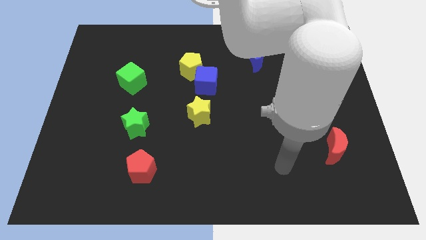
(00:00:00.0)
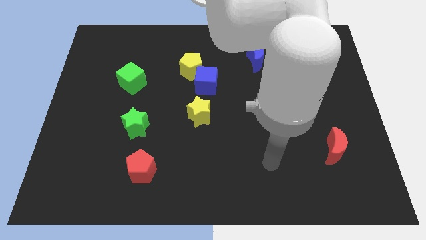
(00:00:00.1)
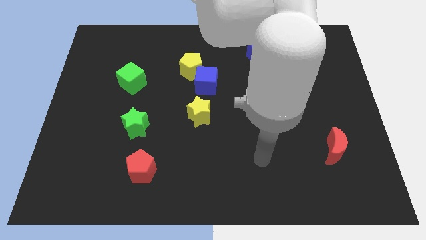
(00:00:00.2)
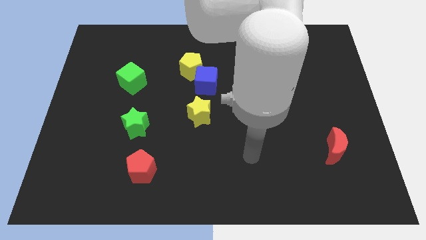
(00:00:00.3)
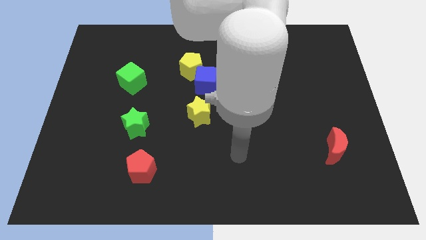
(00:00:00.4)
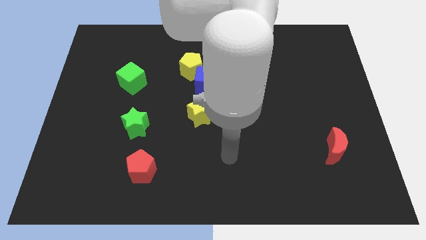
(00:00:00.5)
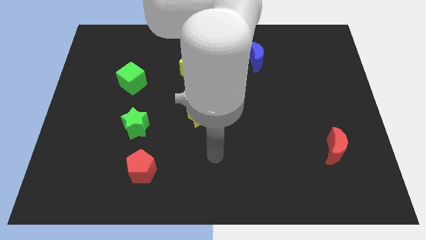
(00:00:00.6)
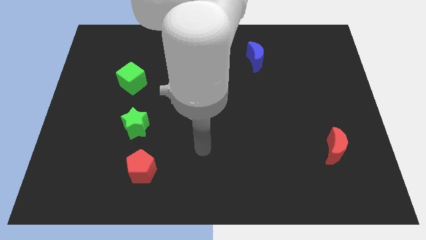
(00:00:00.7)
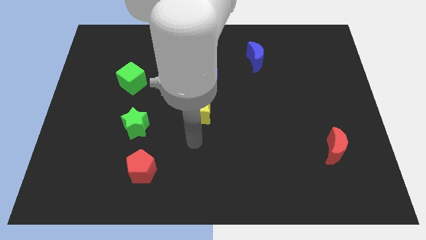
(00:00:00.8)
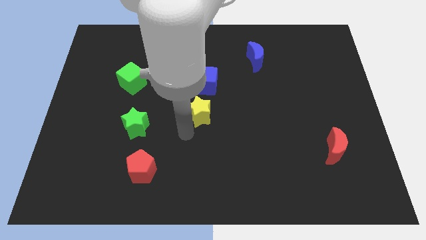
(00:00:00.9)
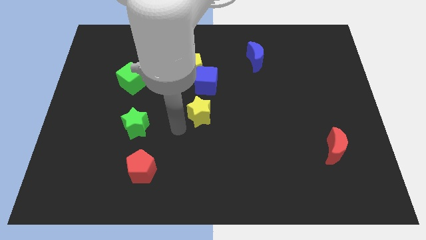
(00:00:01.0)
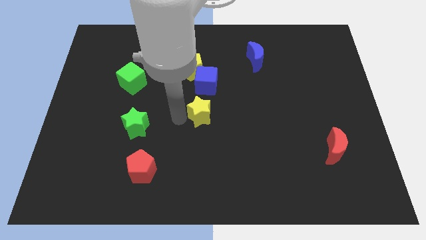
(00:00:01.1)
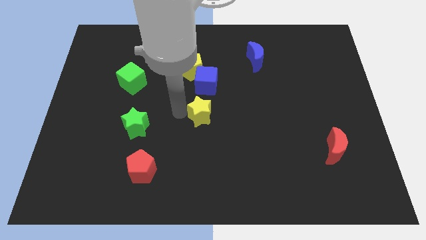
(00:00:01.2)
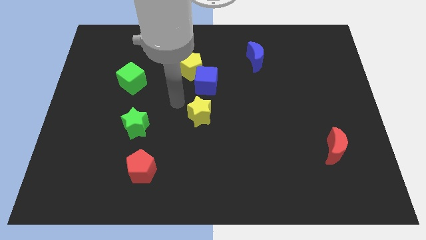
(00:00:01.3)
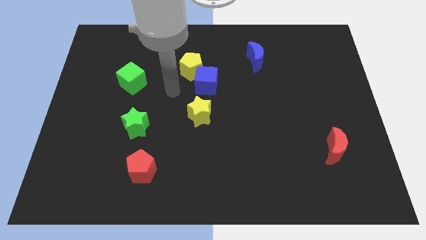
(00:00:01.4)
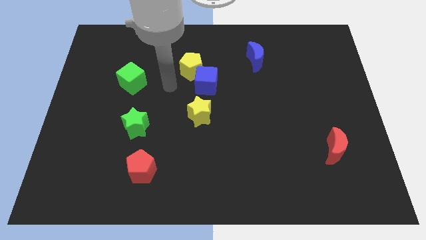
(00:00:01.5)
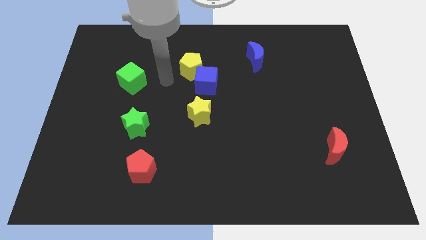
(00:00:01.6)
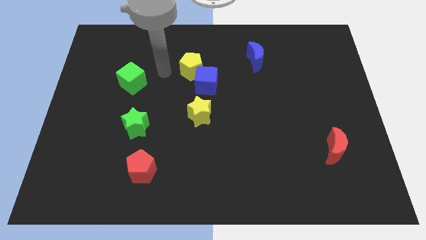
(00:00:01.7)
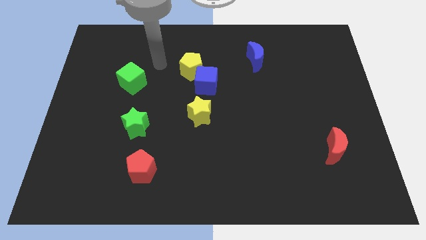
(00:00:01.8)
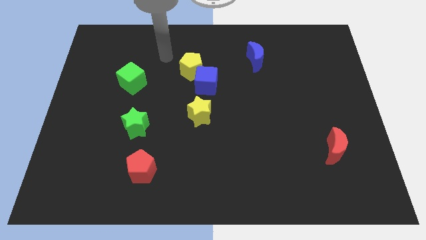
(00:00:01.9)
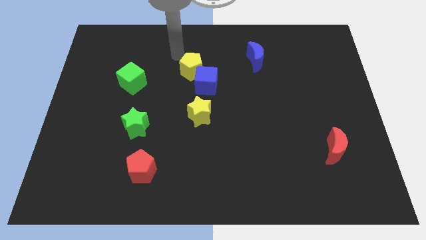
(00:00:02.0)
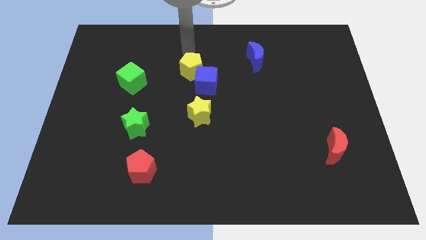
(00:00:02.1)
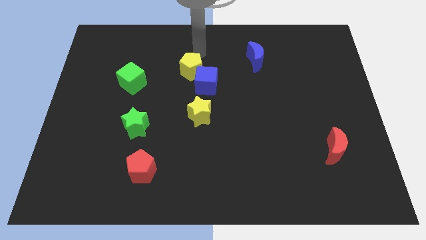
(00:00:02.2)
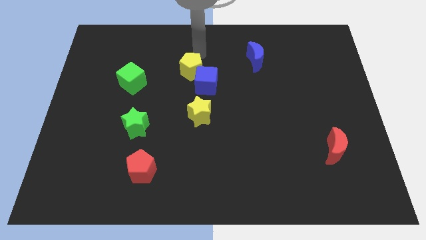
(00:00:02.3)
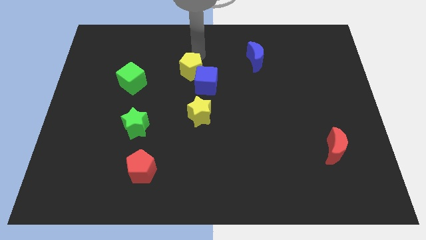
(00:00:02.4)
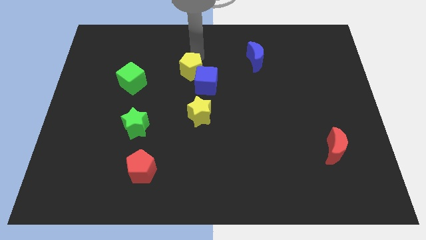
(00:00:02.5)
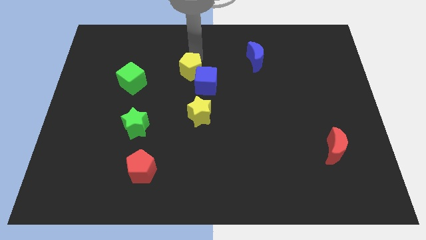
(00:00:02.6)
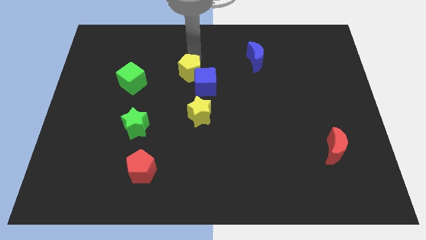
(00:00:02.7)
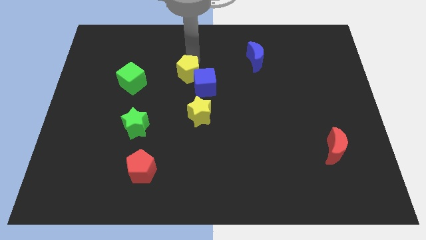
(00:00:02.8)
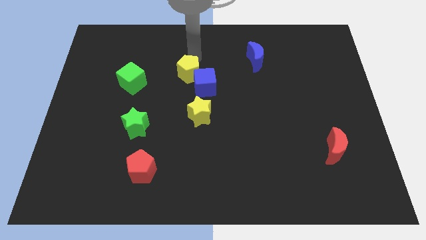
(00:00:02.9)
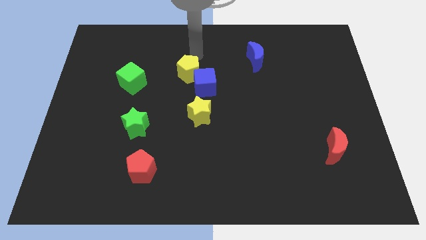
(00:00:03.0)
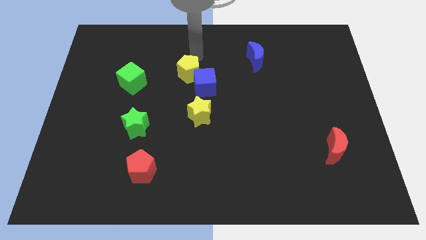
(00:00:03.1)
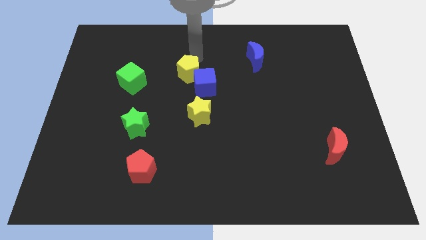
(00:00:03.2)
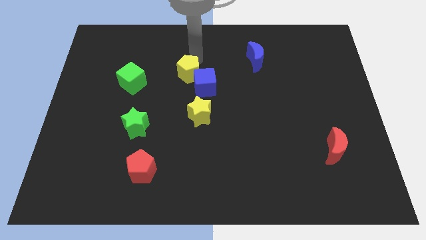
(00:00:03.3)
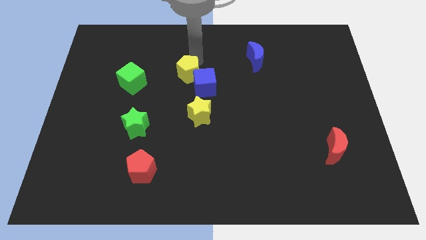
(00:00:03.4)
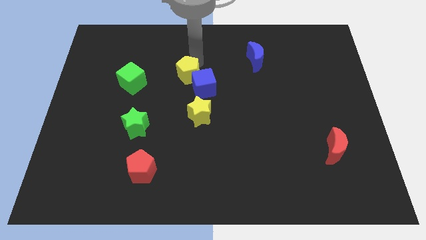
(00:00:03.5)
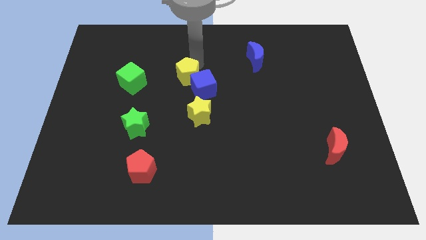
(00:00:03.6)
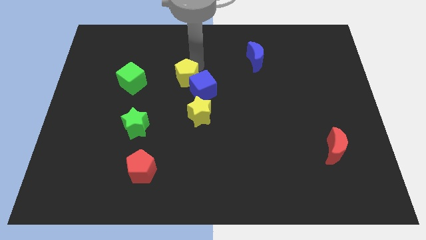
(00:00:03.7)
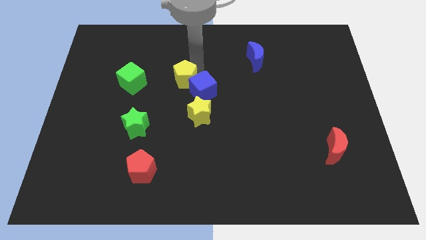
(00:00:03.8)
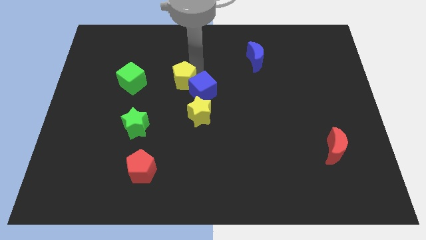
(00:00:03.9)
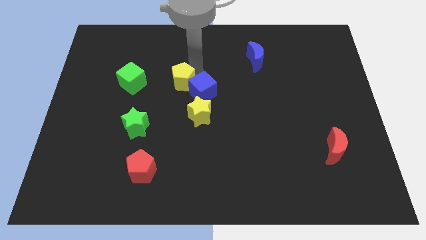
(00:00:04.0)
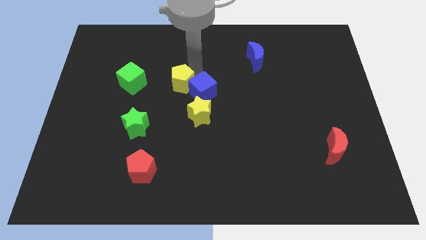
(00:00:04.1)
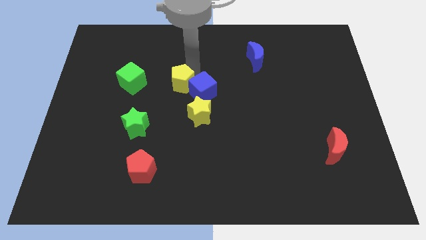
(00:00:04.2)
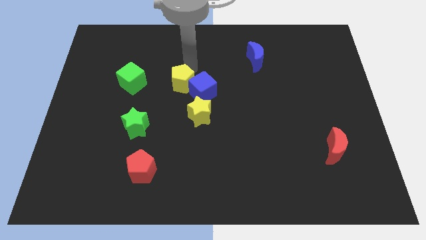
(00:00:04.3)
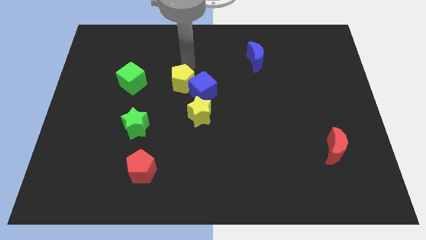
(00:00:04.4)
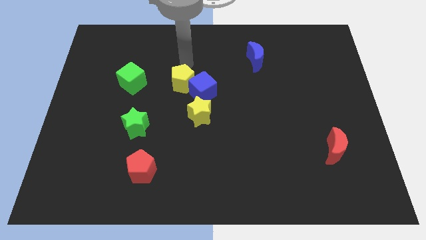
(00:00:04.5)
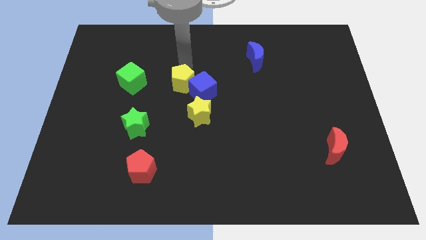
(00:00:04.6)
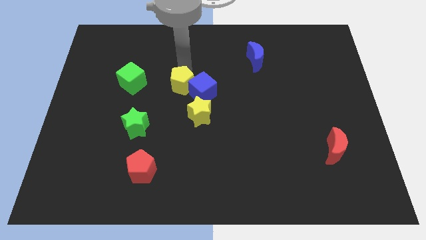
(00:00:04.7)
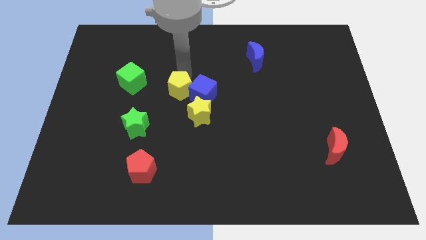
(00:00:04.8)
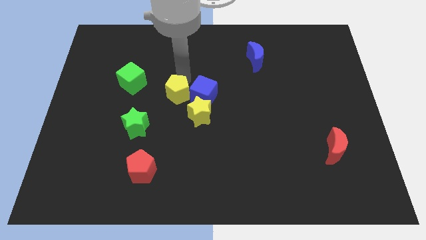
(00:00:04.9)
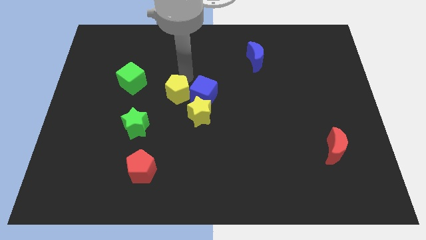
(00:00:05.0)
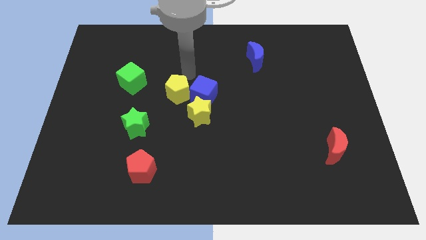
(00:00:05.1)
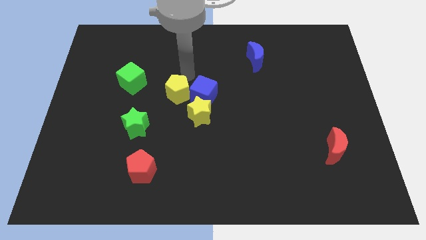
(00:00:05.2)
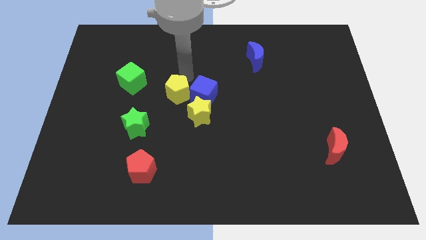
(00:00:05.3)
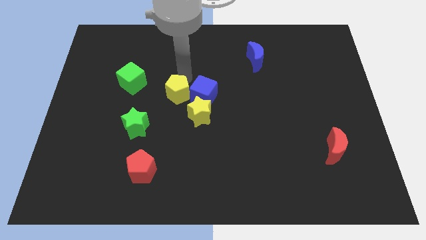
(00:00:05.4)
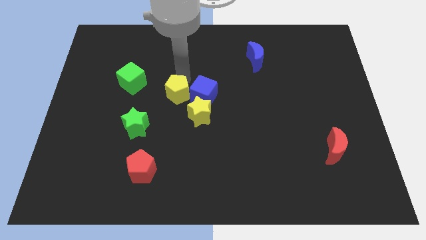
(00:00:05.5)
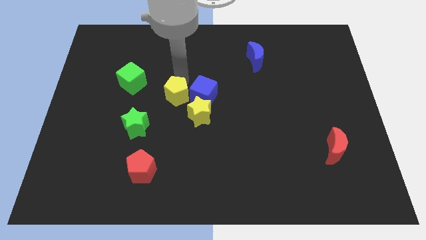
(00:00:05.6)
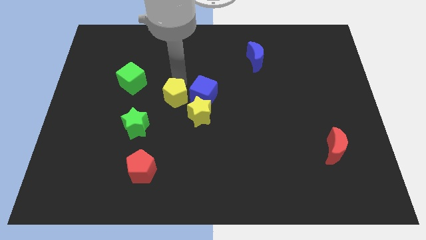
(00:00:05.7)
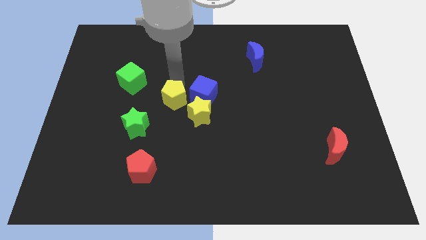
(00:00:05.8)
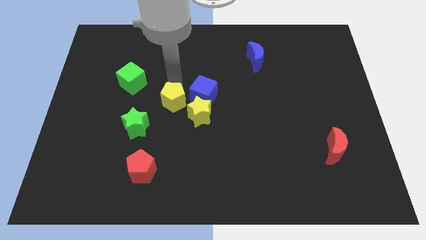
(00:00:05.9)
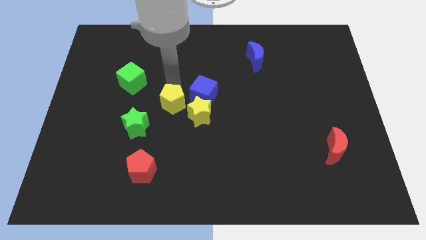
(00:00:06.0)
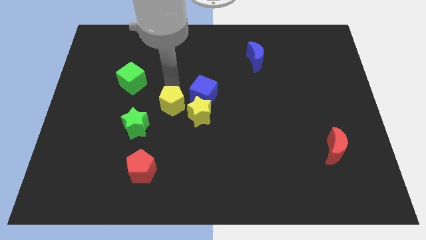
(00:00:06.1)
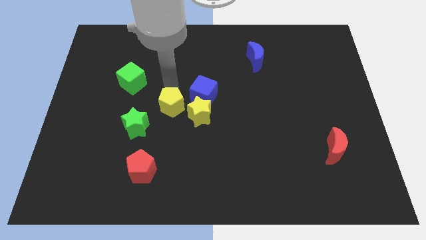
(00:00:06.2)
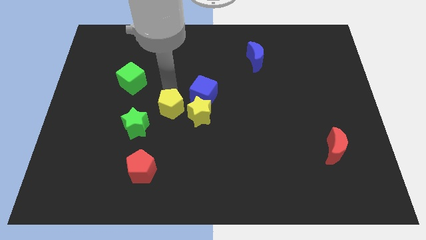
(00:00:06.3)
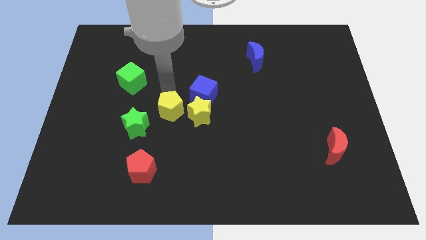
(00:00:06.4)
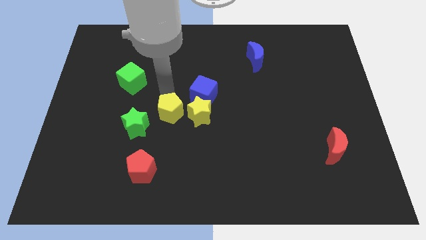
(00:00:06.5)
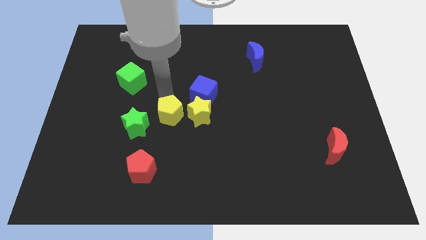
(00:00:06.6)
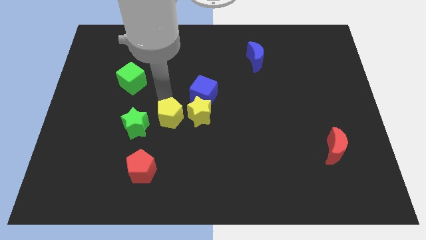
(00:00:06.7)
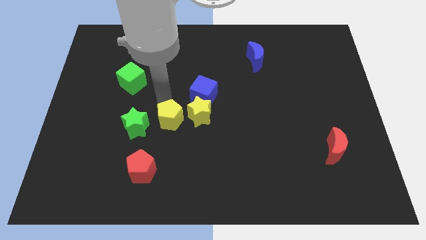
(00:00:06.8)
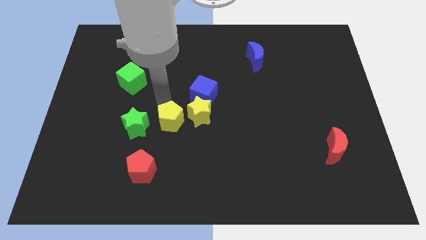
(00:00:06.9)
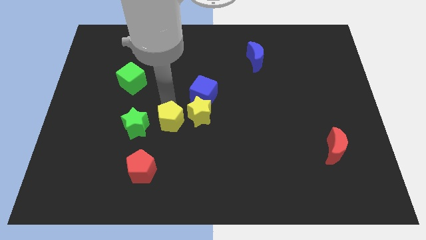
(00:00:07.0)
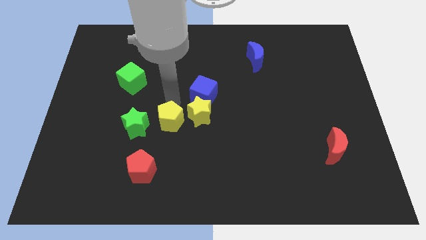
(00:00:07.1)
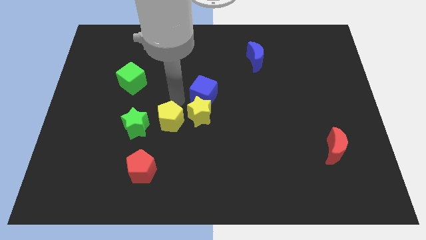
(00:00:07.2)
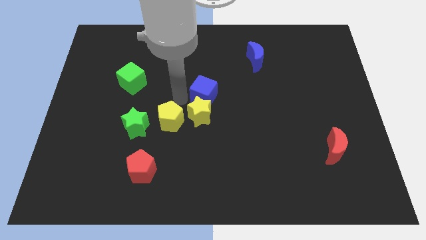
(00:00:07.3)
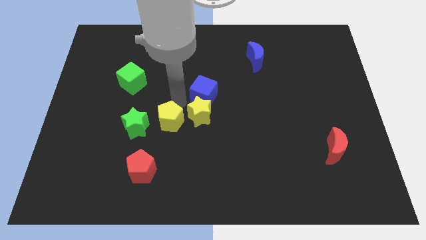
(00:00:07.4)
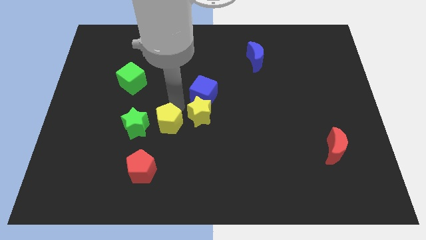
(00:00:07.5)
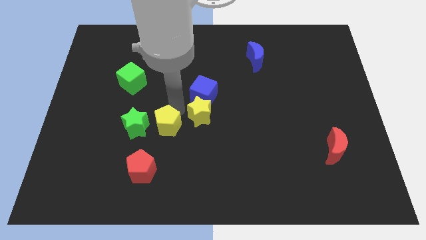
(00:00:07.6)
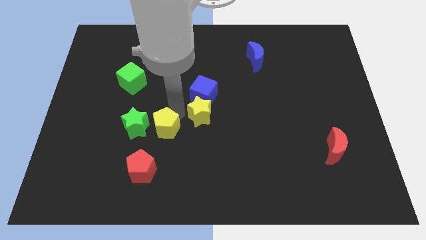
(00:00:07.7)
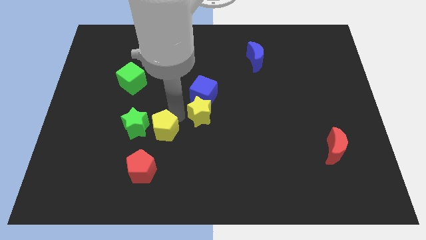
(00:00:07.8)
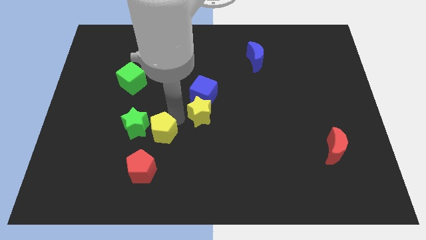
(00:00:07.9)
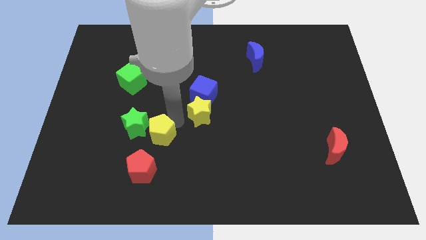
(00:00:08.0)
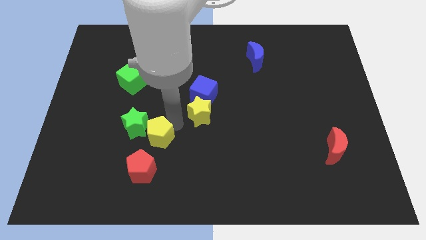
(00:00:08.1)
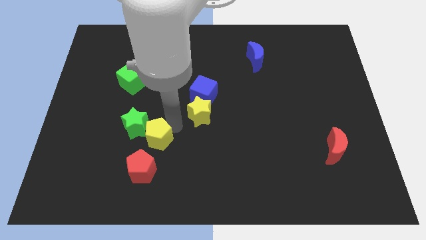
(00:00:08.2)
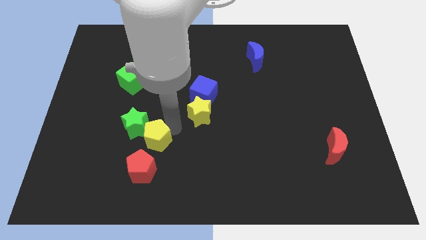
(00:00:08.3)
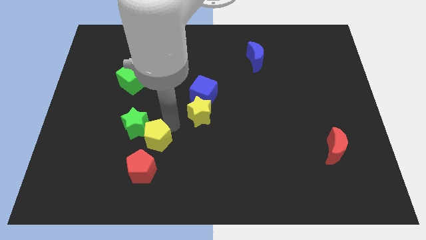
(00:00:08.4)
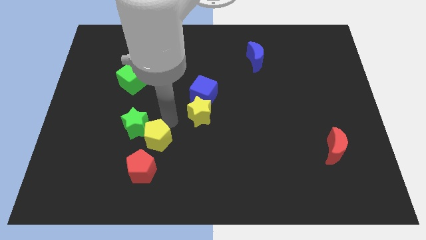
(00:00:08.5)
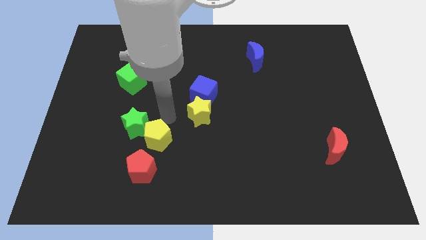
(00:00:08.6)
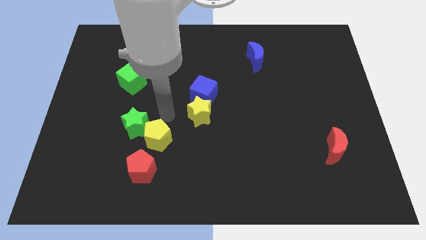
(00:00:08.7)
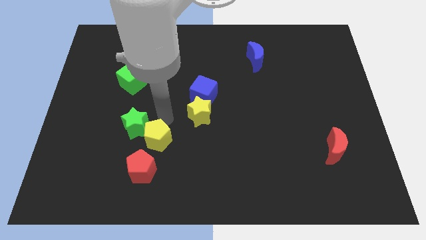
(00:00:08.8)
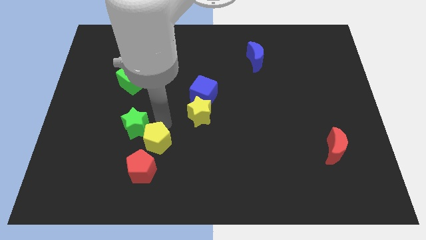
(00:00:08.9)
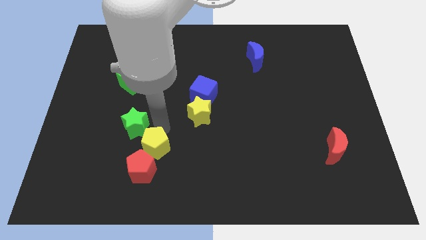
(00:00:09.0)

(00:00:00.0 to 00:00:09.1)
put the yellow pentagon close to the red pentagon
